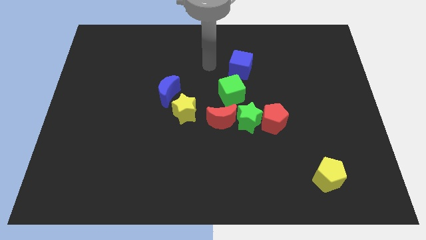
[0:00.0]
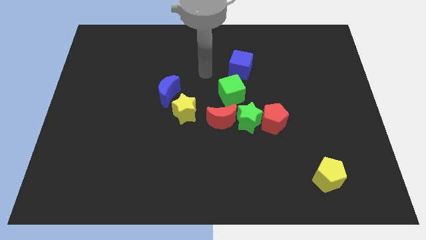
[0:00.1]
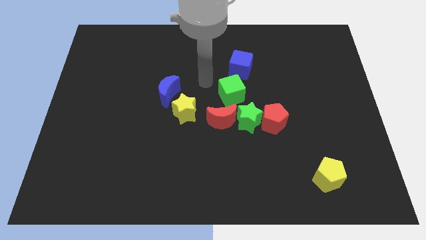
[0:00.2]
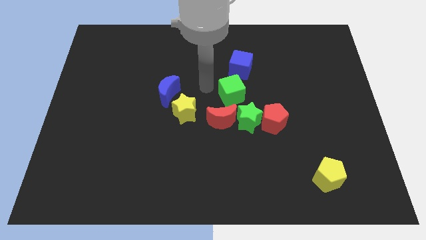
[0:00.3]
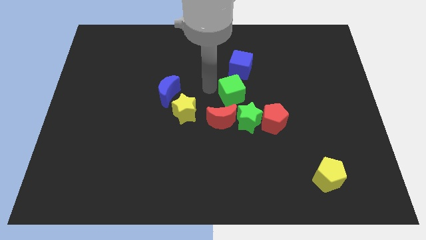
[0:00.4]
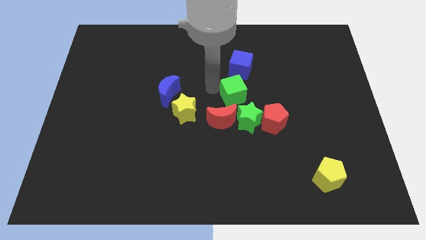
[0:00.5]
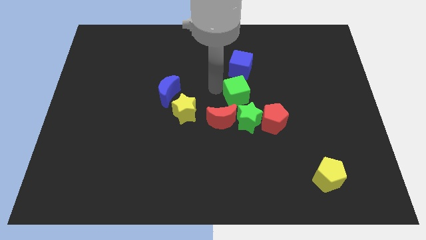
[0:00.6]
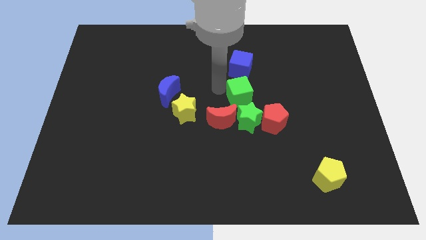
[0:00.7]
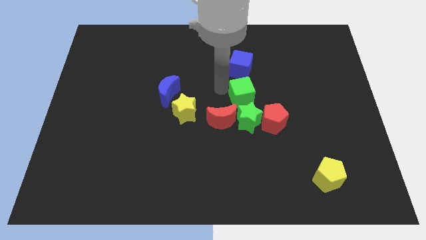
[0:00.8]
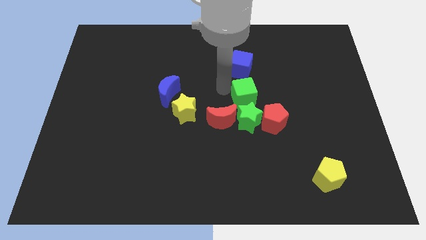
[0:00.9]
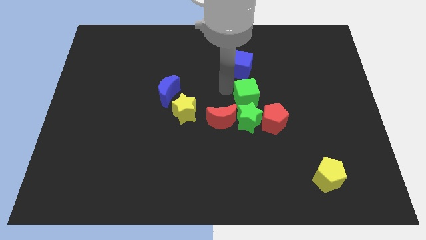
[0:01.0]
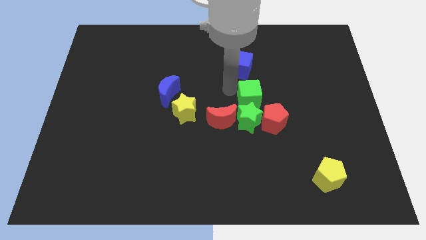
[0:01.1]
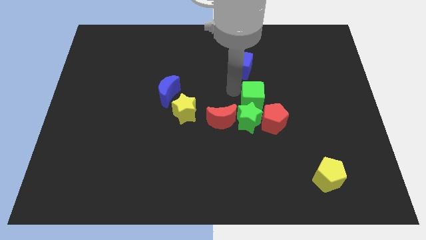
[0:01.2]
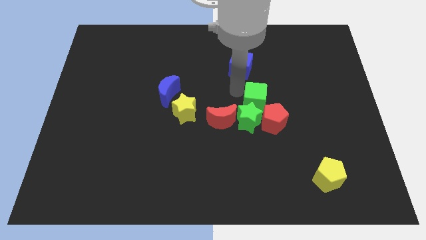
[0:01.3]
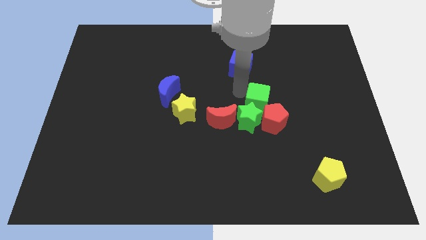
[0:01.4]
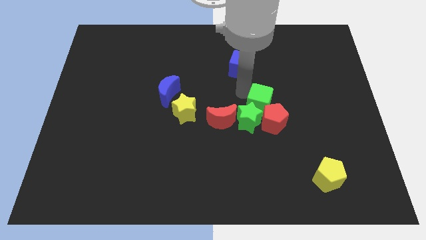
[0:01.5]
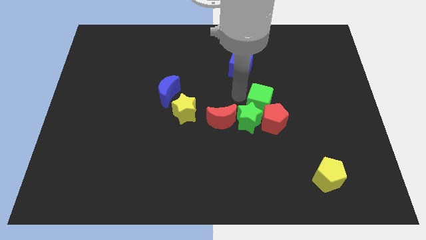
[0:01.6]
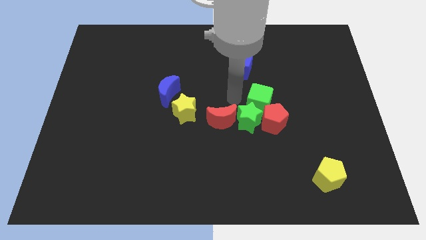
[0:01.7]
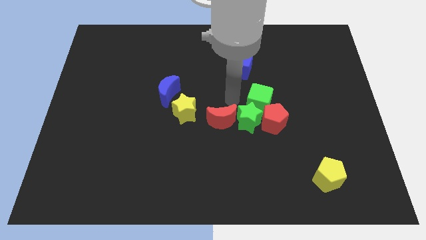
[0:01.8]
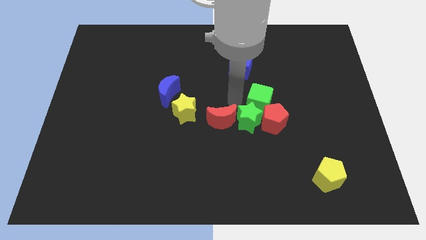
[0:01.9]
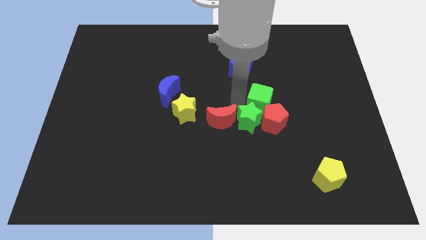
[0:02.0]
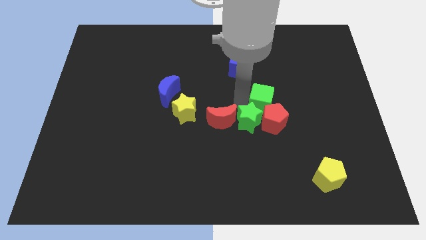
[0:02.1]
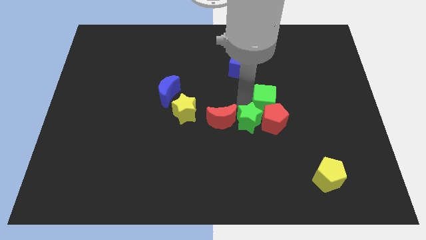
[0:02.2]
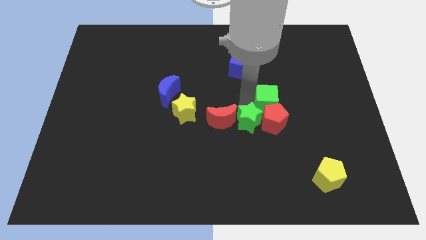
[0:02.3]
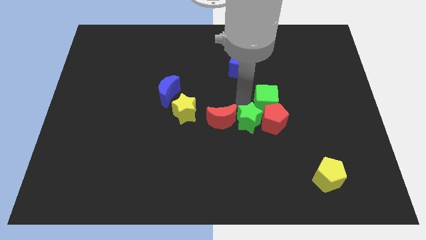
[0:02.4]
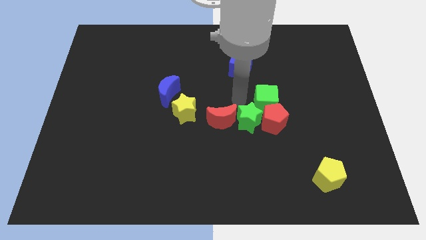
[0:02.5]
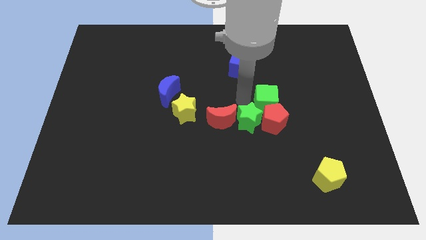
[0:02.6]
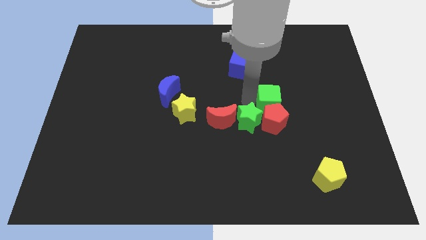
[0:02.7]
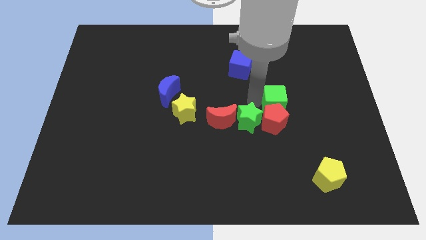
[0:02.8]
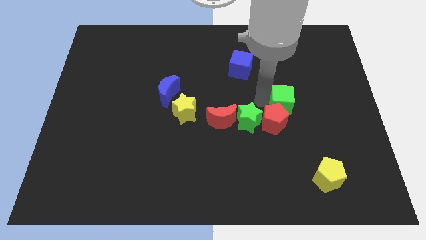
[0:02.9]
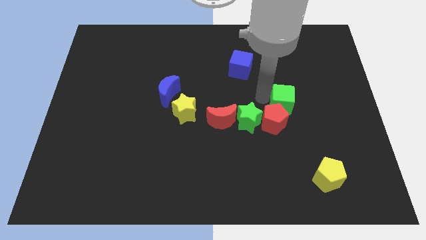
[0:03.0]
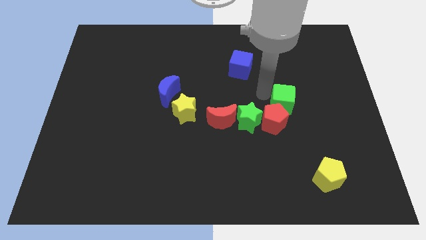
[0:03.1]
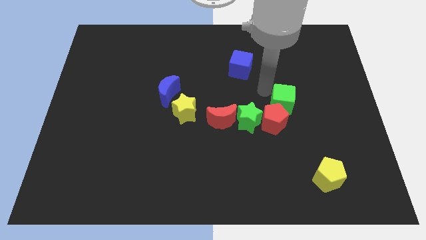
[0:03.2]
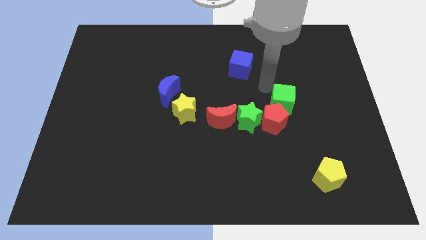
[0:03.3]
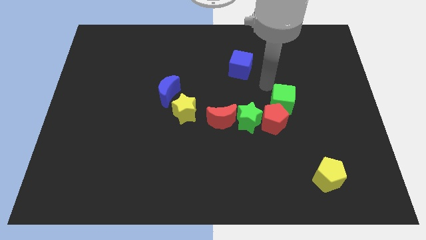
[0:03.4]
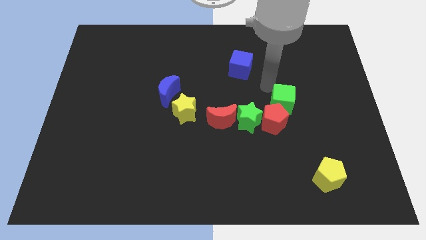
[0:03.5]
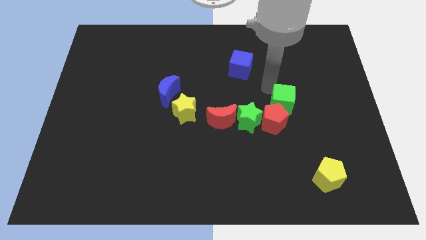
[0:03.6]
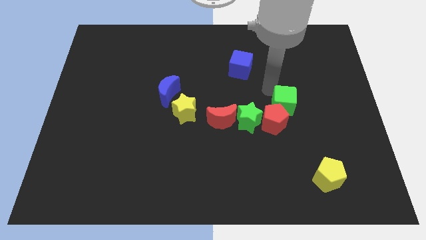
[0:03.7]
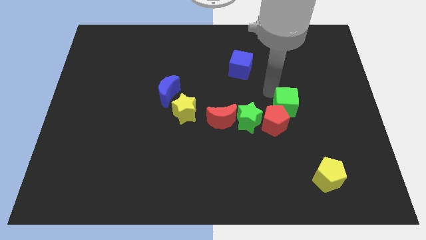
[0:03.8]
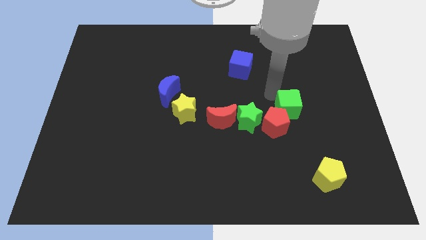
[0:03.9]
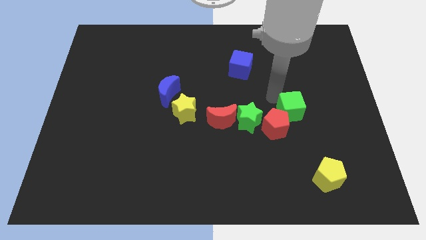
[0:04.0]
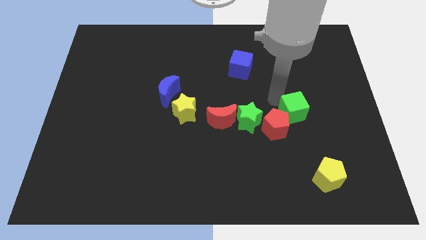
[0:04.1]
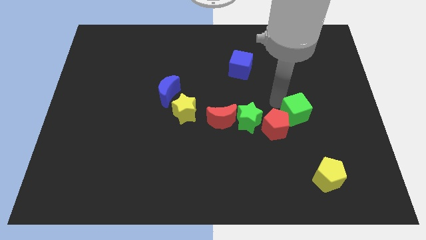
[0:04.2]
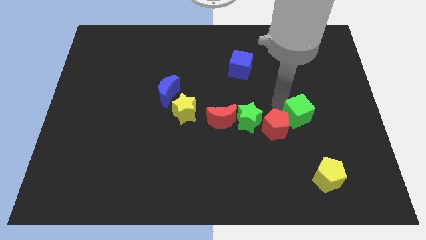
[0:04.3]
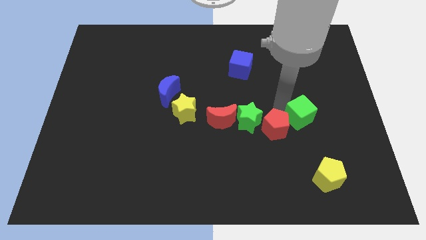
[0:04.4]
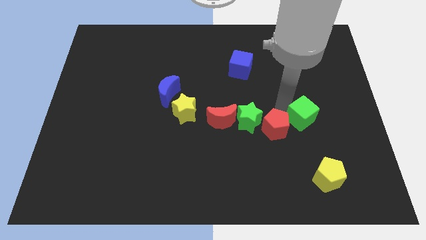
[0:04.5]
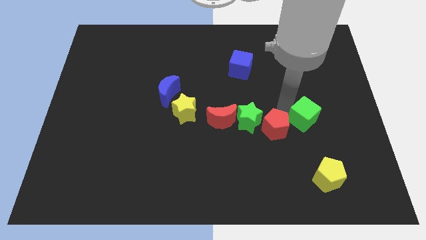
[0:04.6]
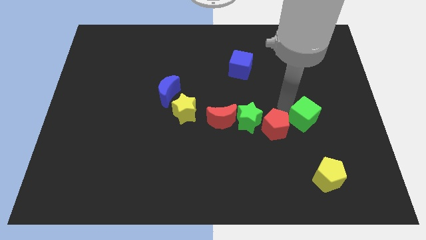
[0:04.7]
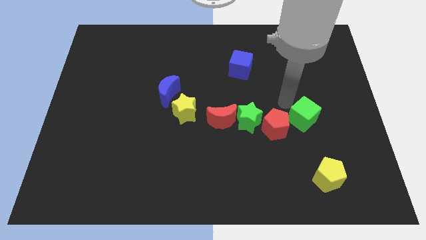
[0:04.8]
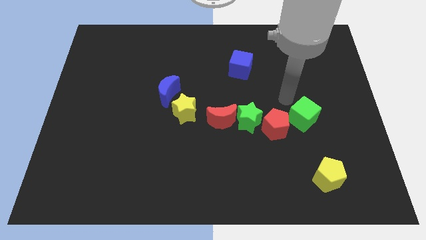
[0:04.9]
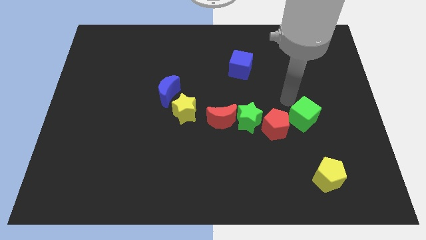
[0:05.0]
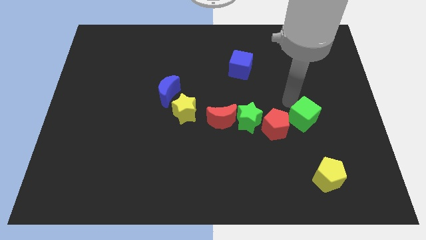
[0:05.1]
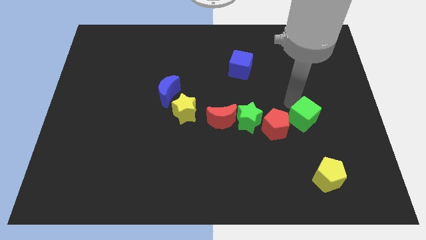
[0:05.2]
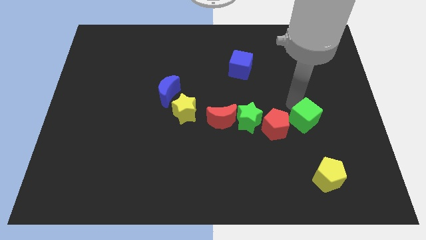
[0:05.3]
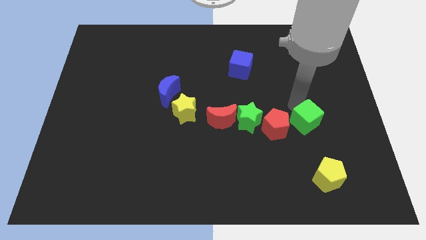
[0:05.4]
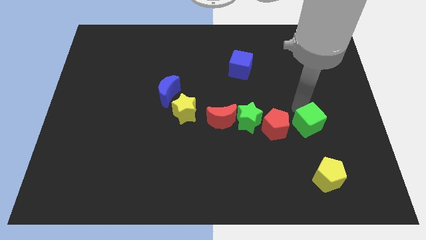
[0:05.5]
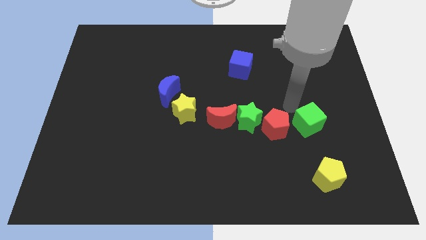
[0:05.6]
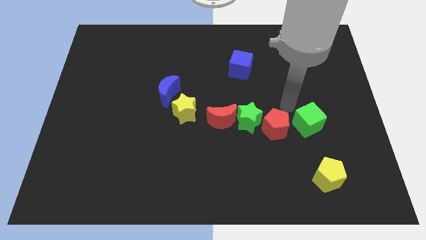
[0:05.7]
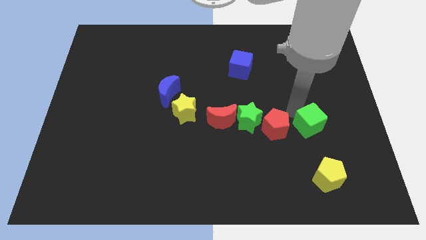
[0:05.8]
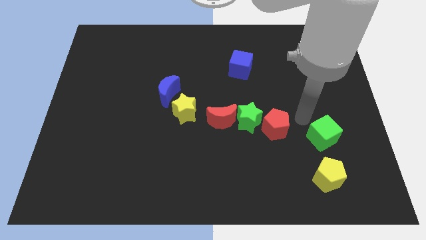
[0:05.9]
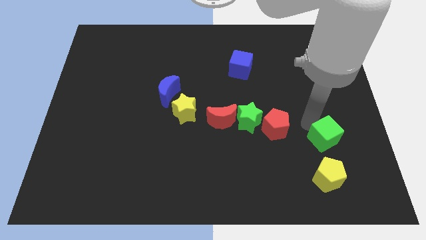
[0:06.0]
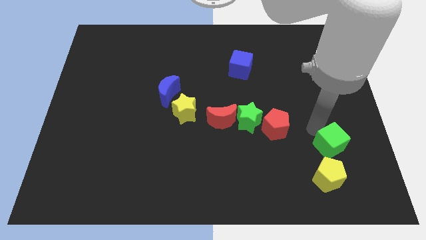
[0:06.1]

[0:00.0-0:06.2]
move the green cube to the top right of the yellow pentagon

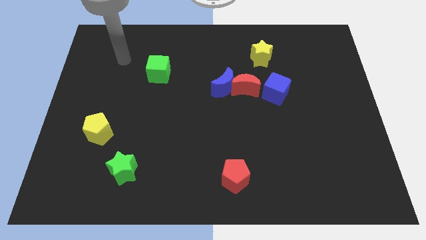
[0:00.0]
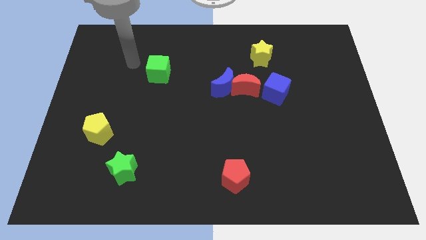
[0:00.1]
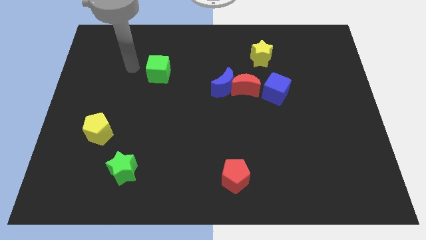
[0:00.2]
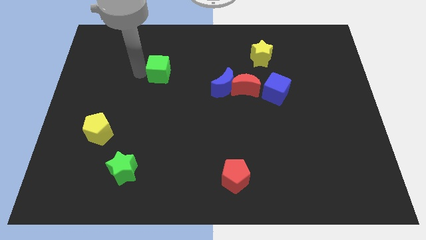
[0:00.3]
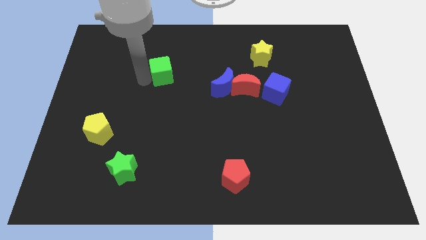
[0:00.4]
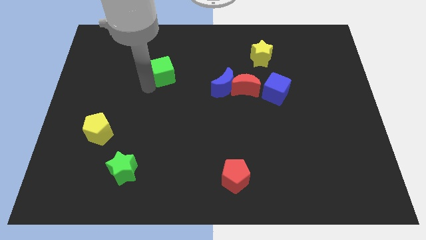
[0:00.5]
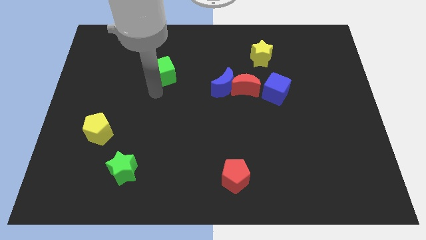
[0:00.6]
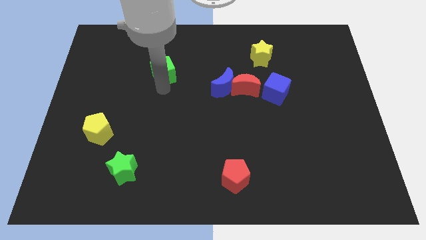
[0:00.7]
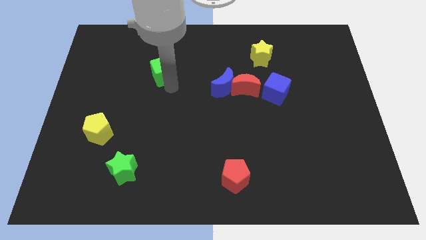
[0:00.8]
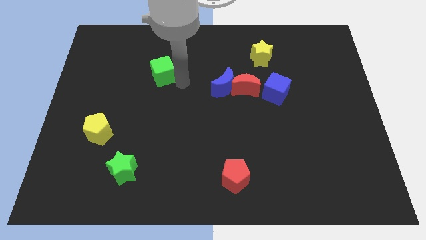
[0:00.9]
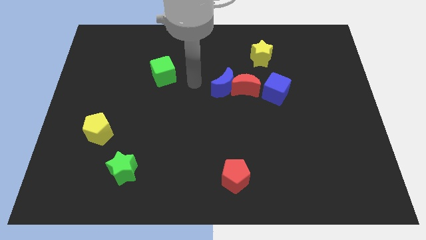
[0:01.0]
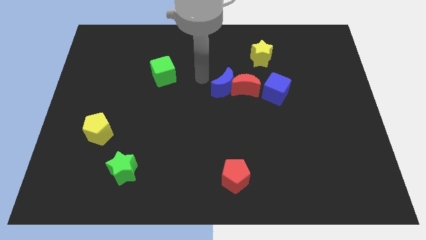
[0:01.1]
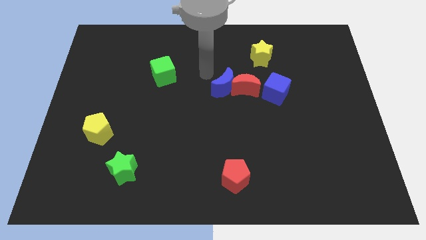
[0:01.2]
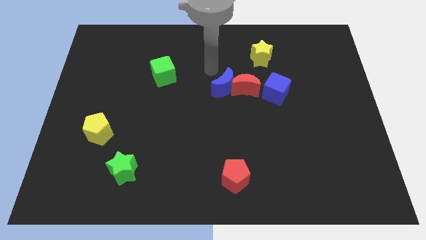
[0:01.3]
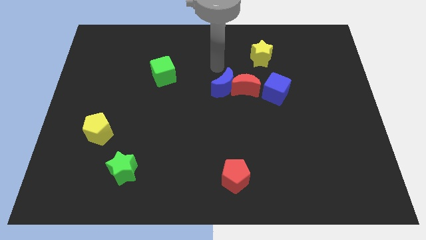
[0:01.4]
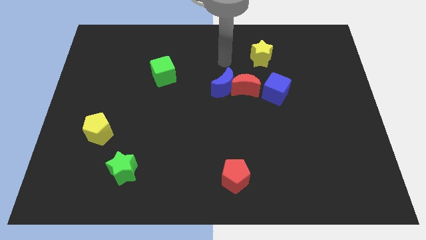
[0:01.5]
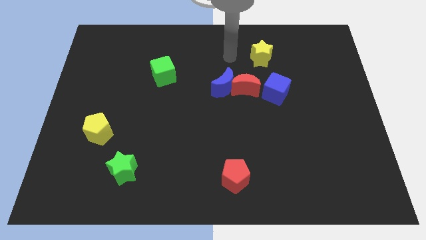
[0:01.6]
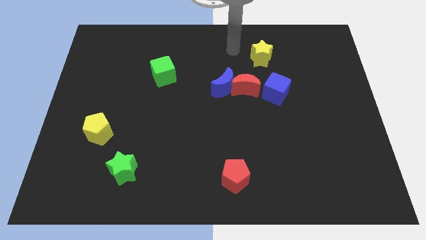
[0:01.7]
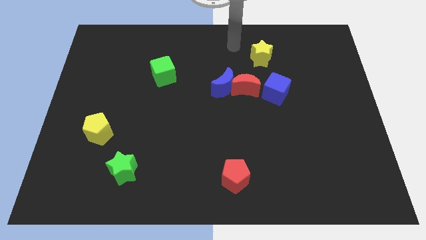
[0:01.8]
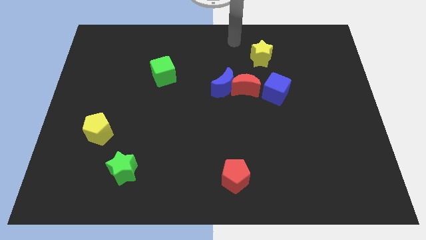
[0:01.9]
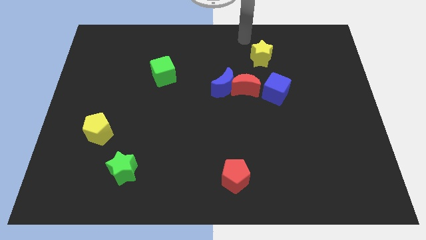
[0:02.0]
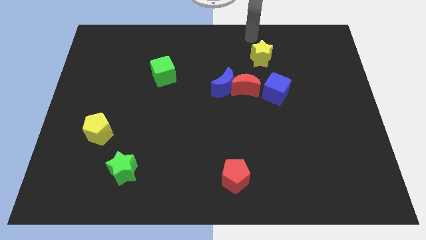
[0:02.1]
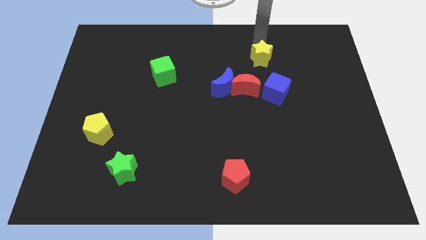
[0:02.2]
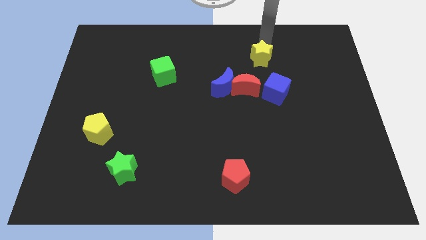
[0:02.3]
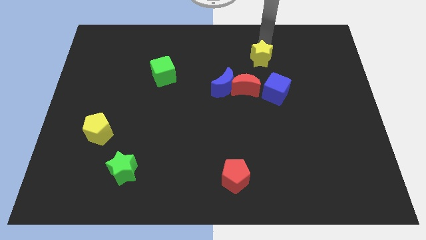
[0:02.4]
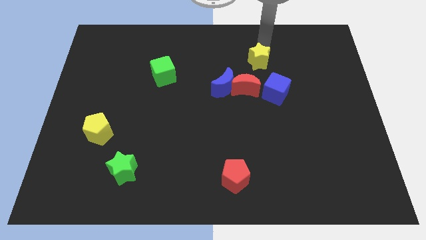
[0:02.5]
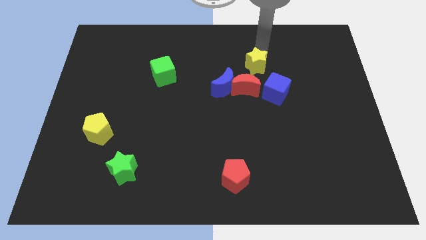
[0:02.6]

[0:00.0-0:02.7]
slide the yellow star diagonally up and to the left of the blue cube
